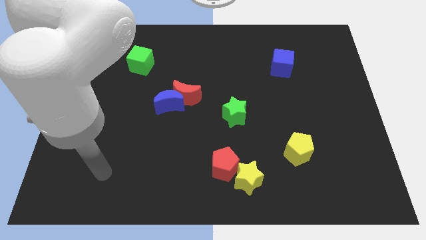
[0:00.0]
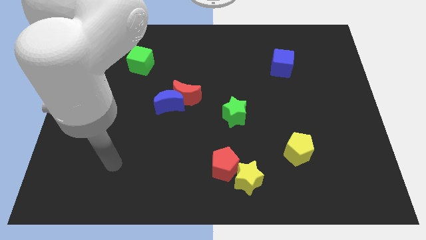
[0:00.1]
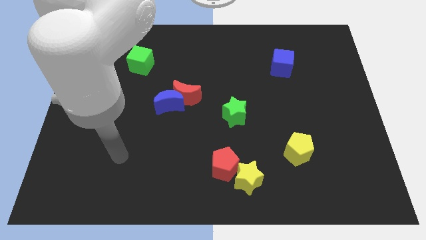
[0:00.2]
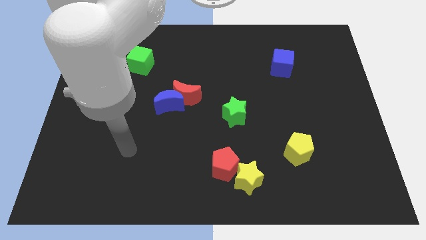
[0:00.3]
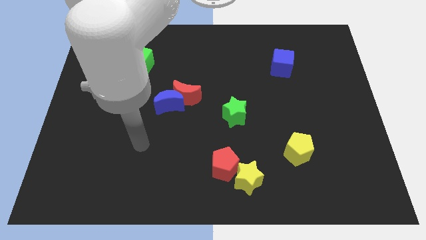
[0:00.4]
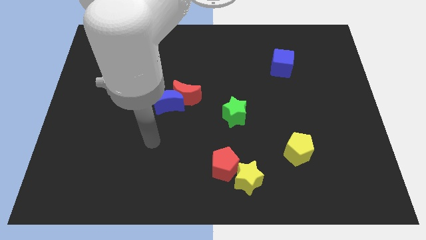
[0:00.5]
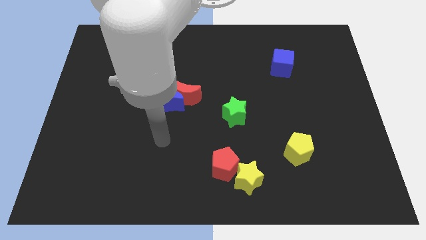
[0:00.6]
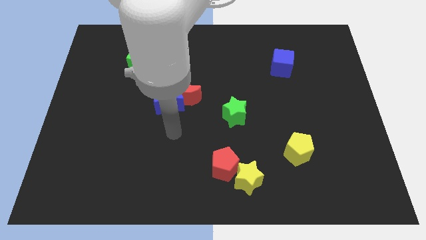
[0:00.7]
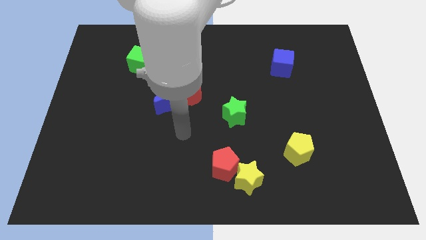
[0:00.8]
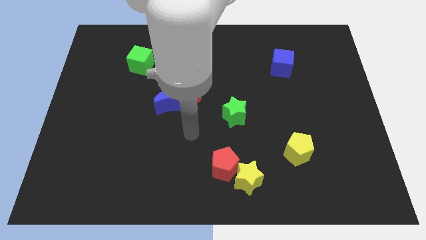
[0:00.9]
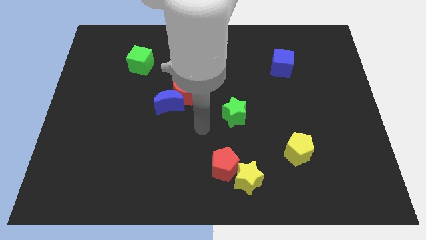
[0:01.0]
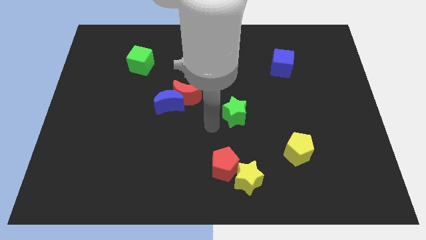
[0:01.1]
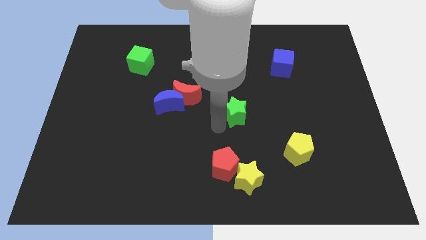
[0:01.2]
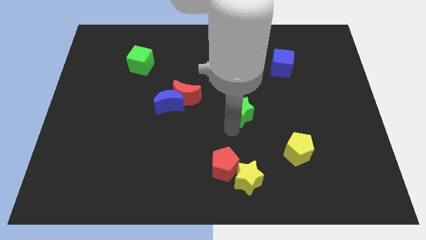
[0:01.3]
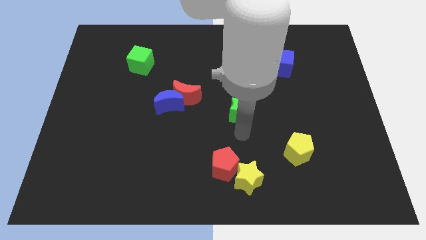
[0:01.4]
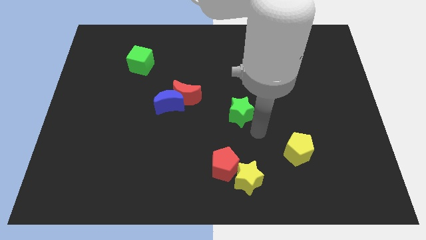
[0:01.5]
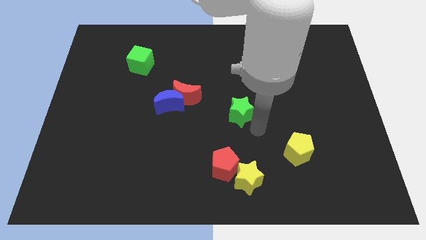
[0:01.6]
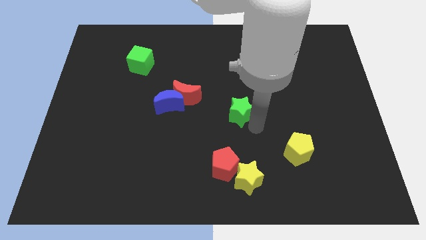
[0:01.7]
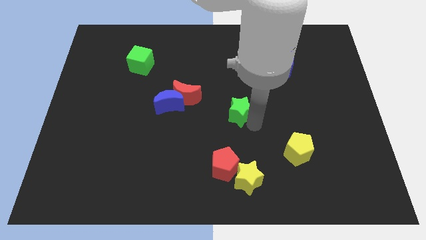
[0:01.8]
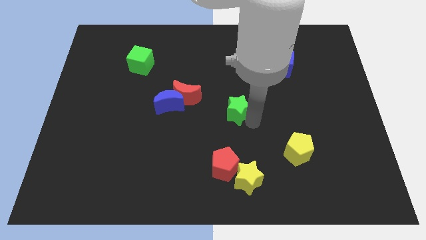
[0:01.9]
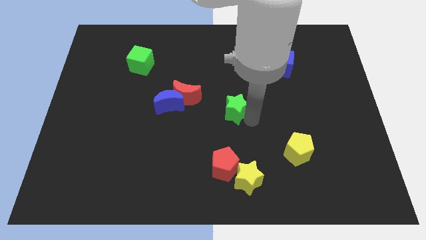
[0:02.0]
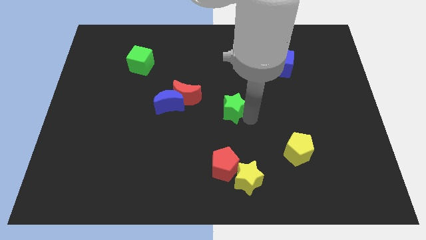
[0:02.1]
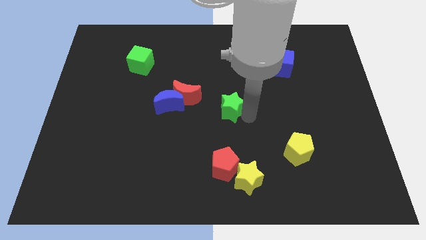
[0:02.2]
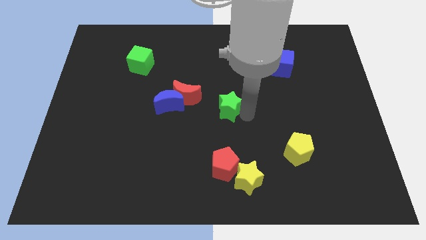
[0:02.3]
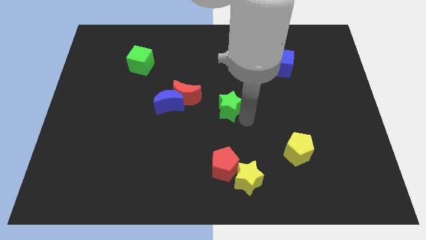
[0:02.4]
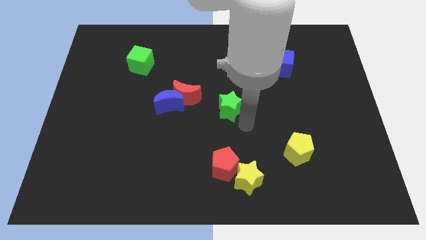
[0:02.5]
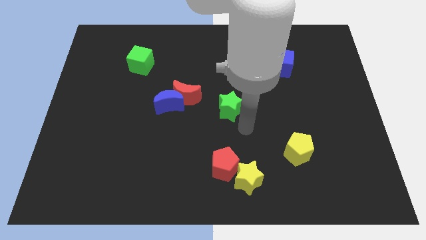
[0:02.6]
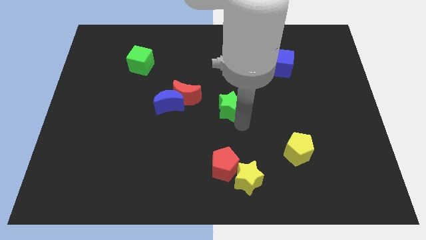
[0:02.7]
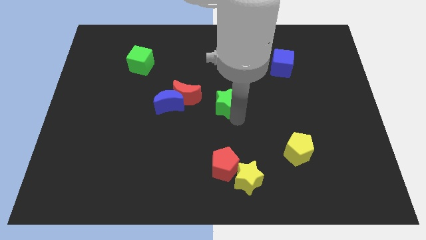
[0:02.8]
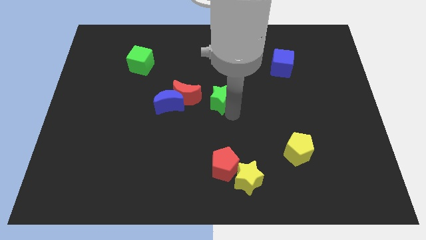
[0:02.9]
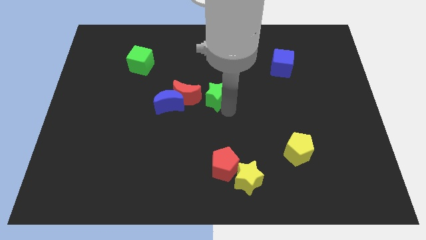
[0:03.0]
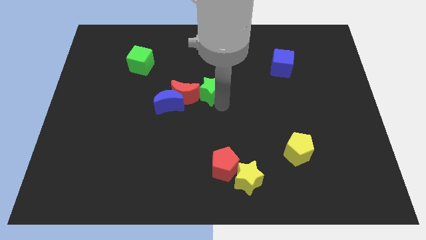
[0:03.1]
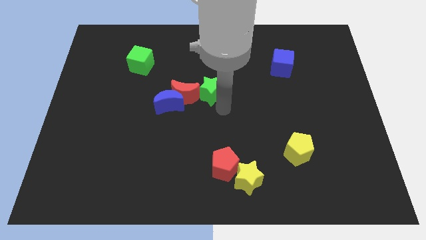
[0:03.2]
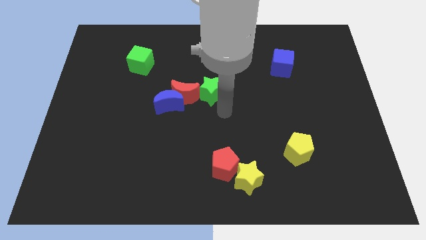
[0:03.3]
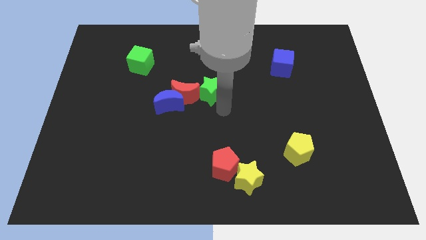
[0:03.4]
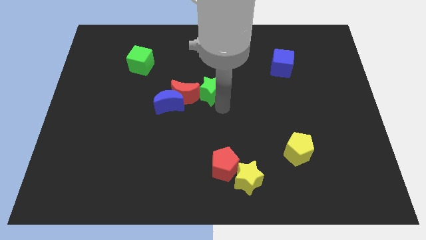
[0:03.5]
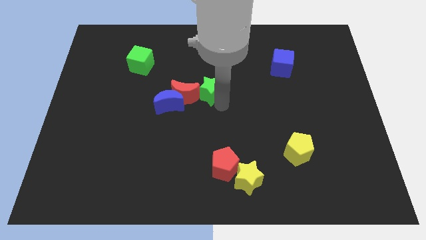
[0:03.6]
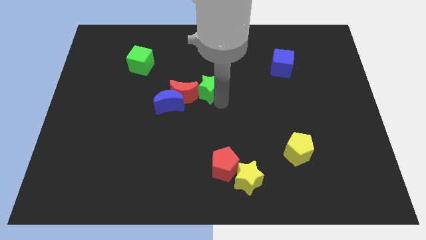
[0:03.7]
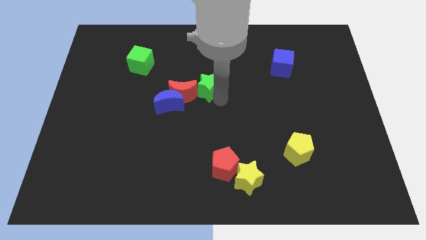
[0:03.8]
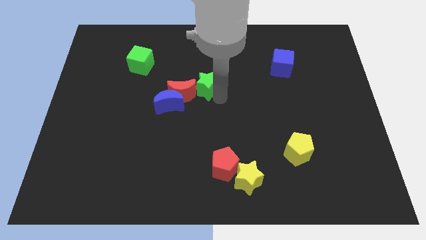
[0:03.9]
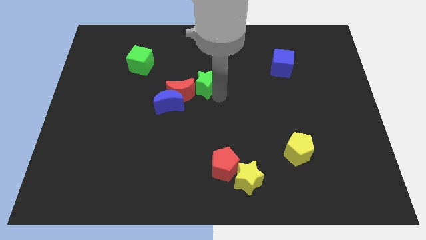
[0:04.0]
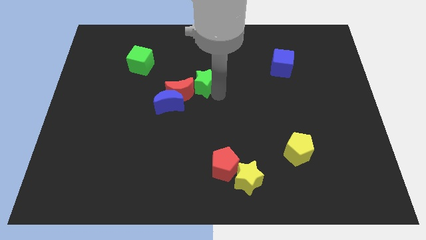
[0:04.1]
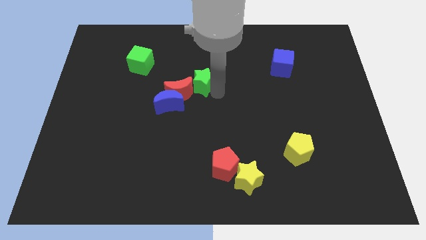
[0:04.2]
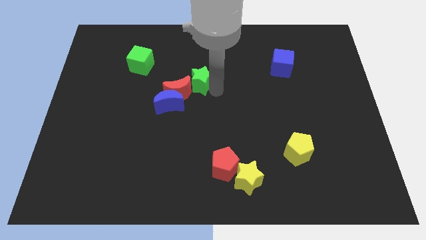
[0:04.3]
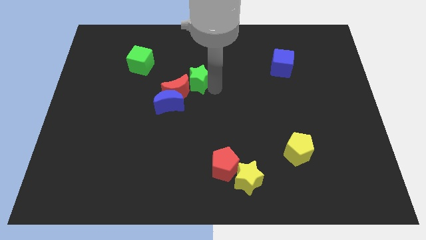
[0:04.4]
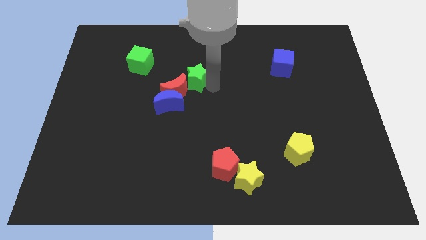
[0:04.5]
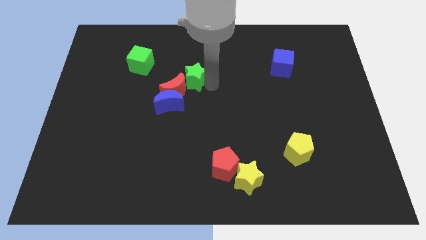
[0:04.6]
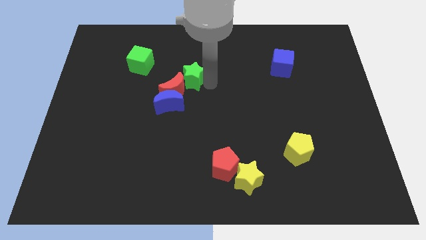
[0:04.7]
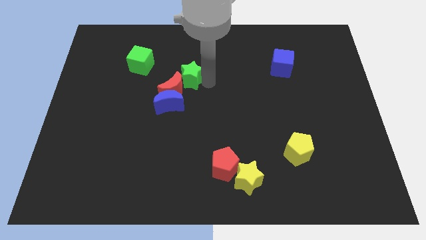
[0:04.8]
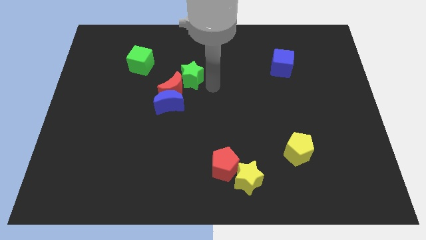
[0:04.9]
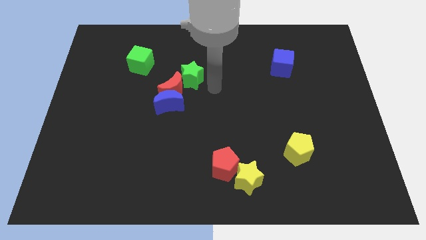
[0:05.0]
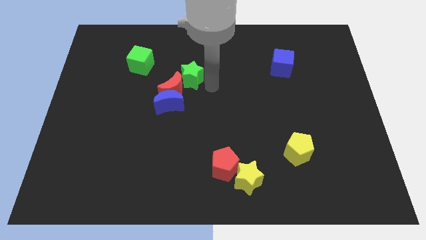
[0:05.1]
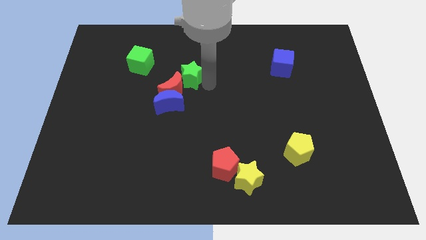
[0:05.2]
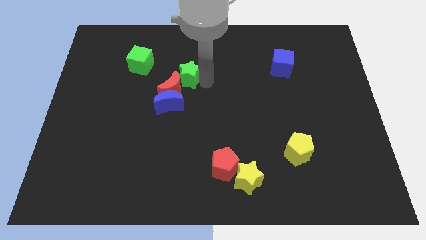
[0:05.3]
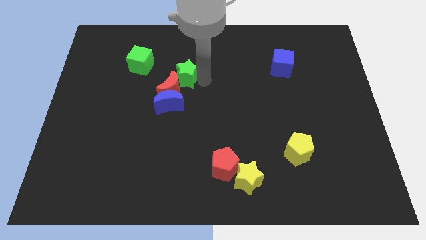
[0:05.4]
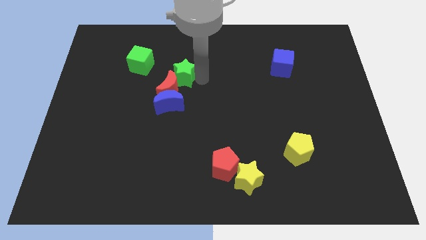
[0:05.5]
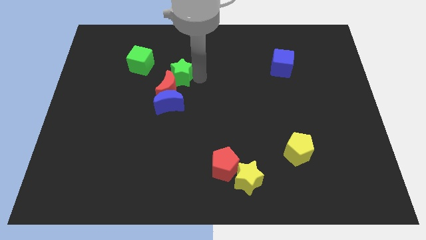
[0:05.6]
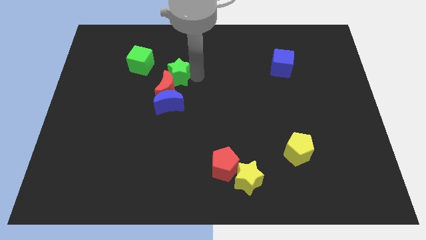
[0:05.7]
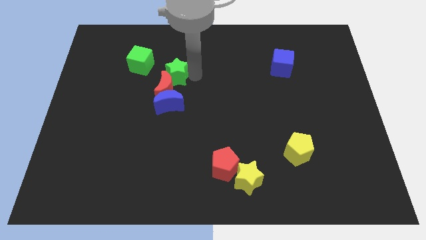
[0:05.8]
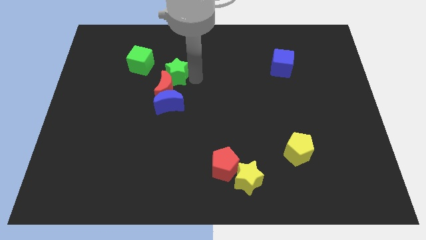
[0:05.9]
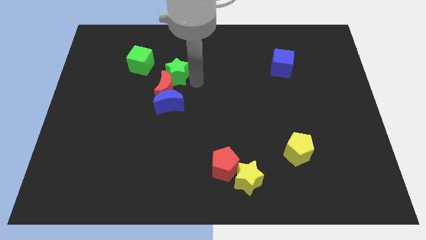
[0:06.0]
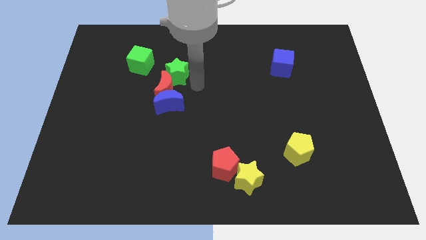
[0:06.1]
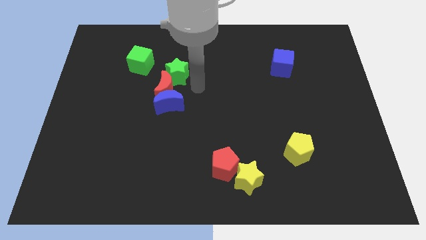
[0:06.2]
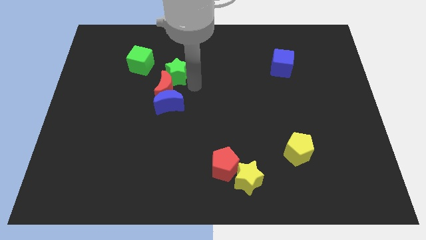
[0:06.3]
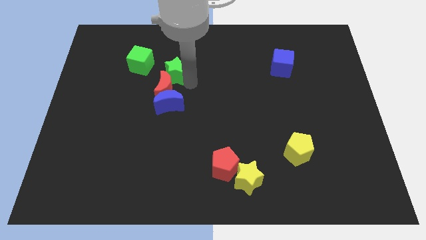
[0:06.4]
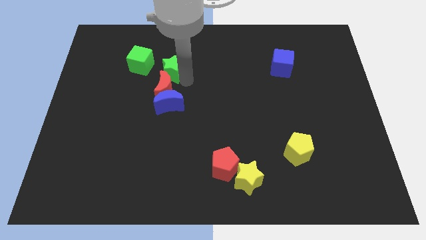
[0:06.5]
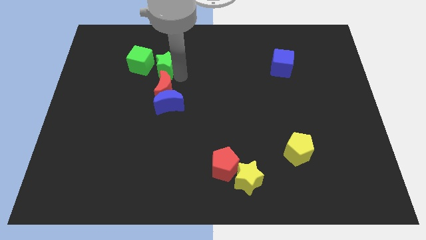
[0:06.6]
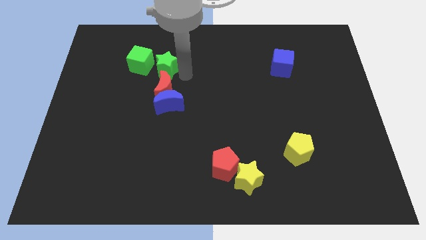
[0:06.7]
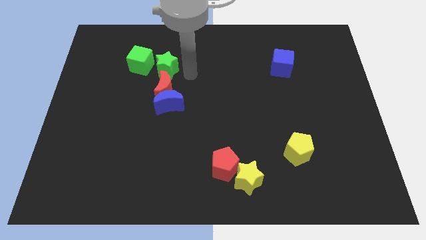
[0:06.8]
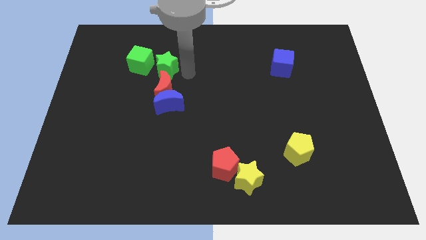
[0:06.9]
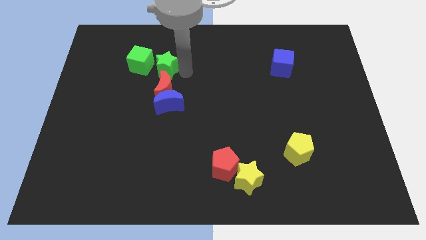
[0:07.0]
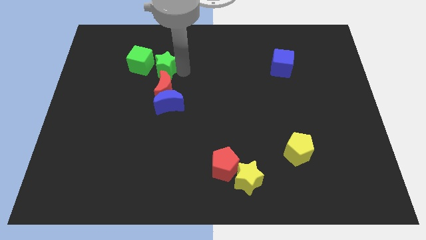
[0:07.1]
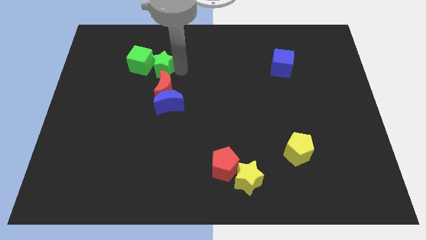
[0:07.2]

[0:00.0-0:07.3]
move the green star close to the green cube
